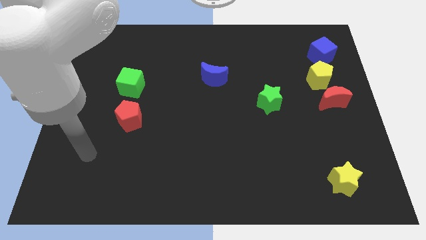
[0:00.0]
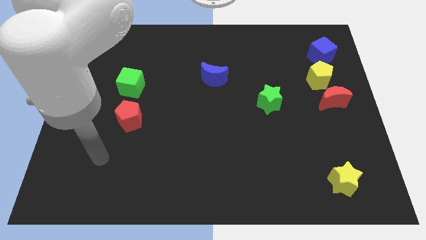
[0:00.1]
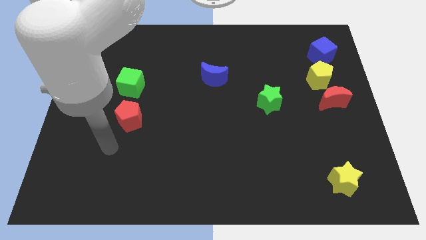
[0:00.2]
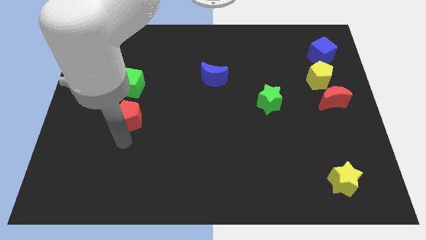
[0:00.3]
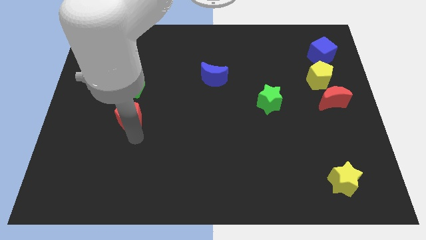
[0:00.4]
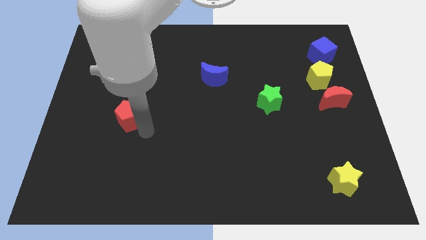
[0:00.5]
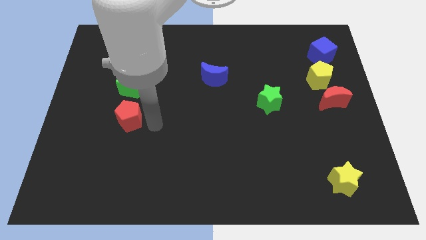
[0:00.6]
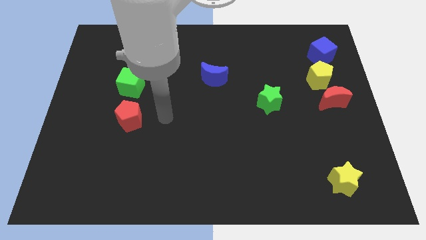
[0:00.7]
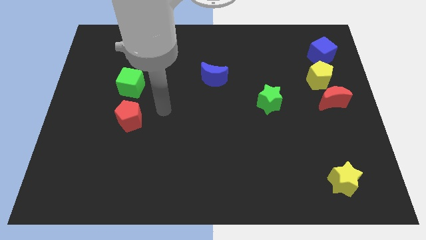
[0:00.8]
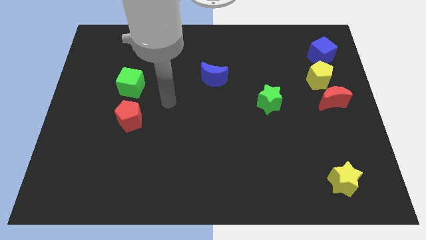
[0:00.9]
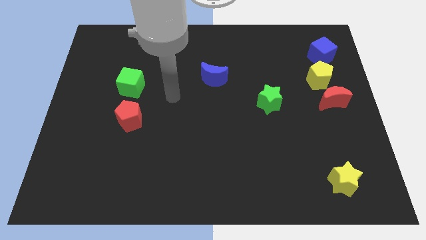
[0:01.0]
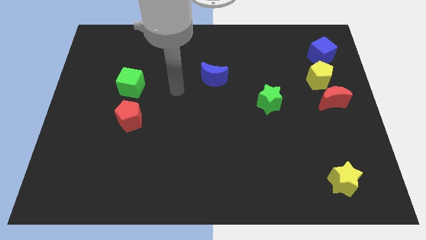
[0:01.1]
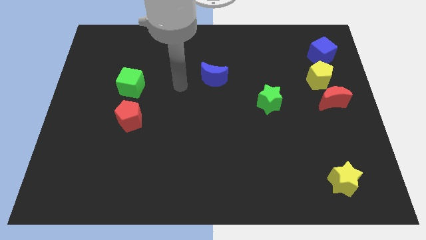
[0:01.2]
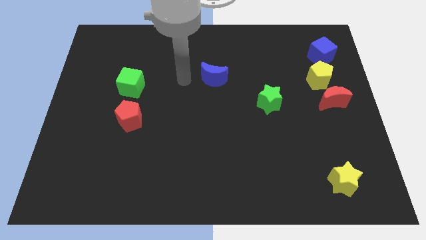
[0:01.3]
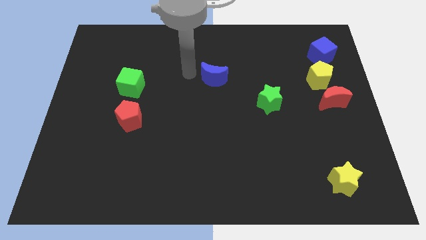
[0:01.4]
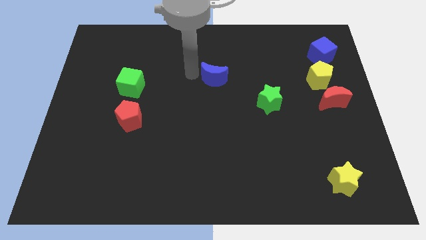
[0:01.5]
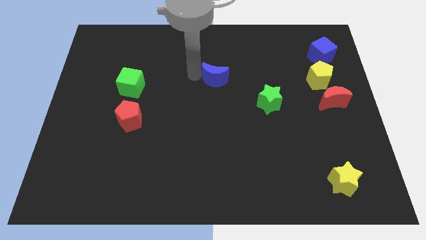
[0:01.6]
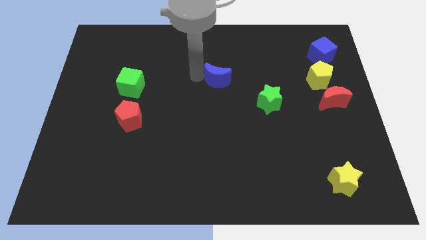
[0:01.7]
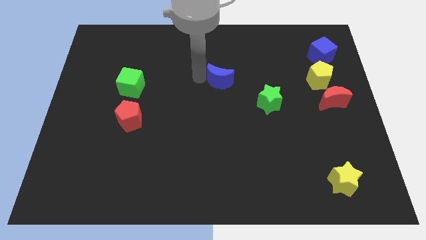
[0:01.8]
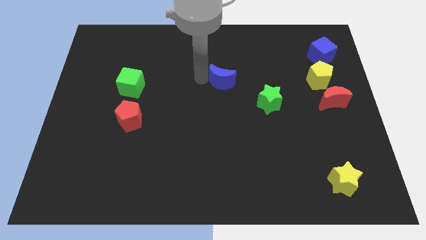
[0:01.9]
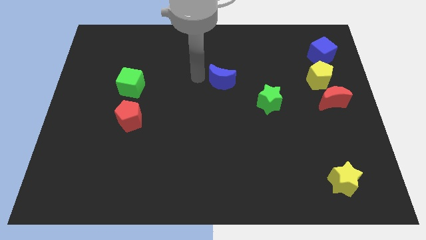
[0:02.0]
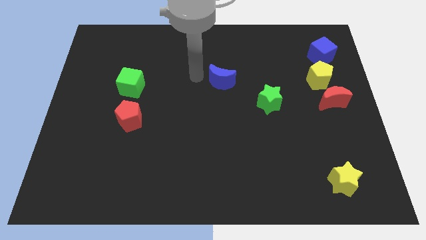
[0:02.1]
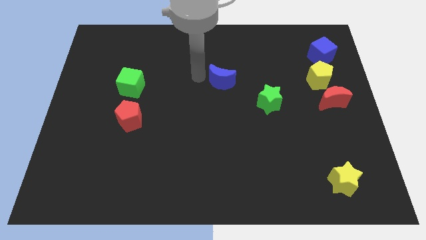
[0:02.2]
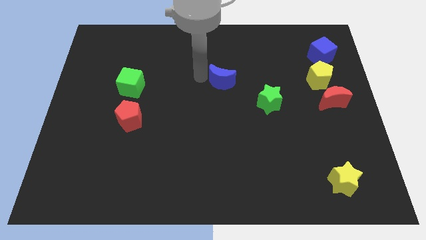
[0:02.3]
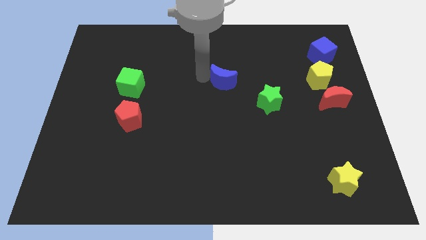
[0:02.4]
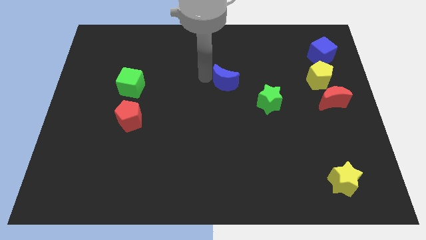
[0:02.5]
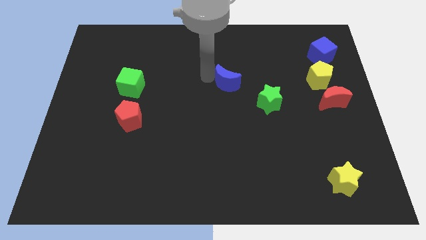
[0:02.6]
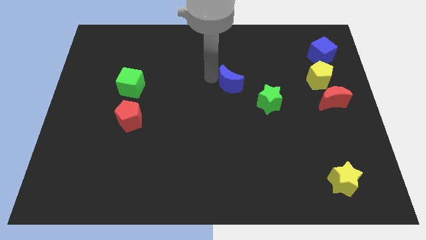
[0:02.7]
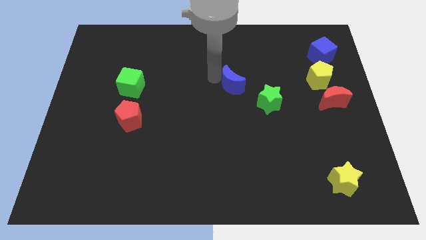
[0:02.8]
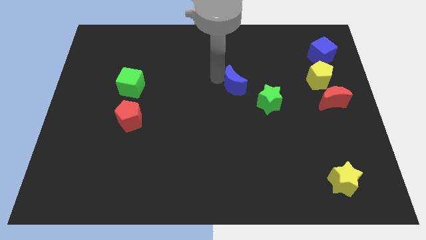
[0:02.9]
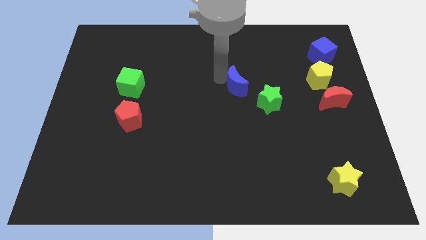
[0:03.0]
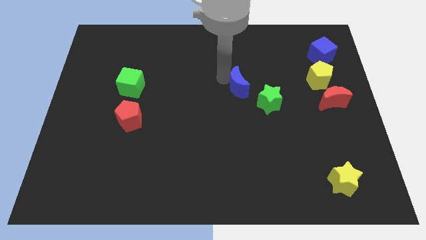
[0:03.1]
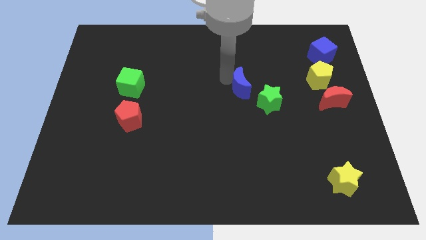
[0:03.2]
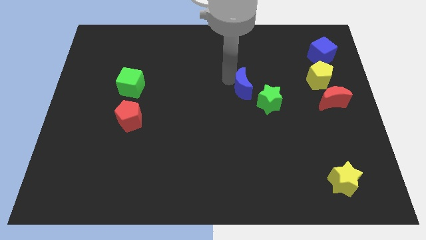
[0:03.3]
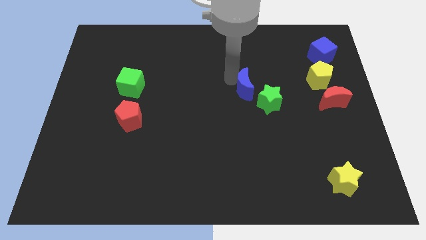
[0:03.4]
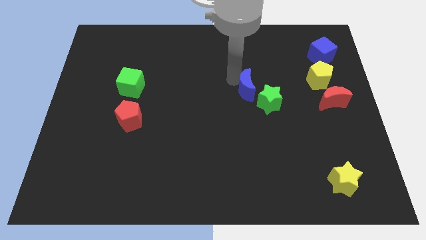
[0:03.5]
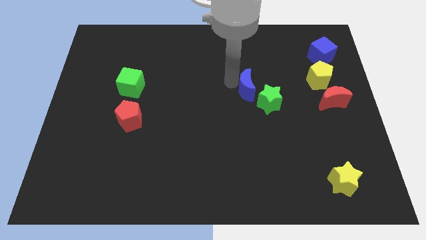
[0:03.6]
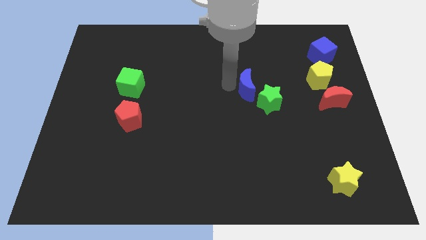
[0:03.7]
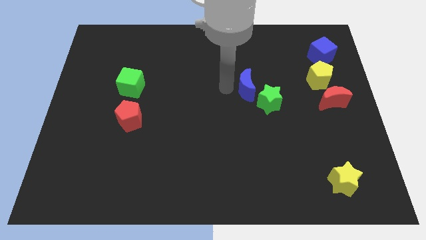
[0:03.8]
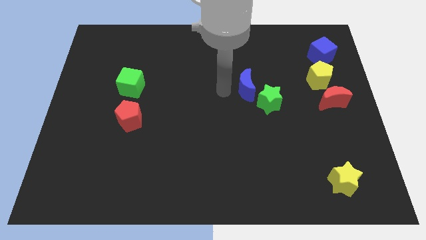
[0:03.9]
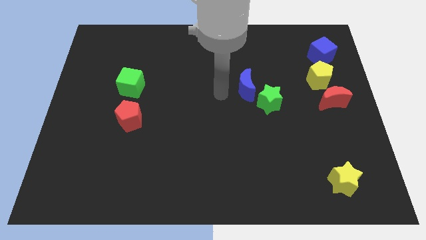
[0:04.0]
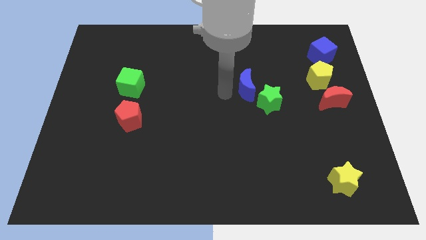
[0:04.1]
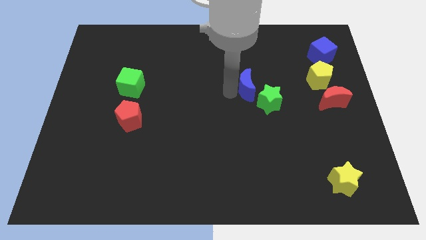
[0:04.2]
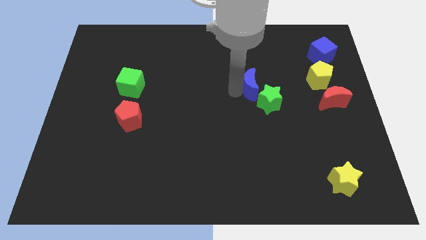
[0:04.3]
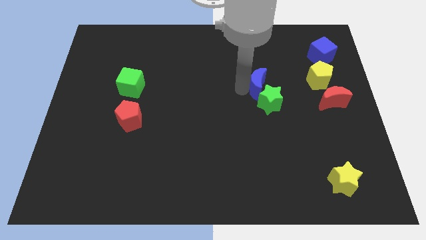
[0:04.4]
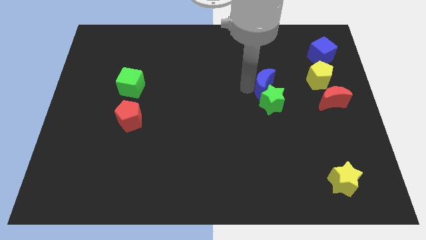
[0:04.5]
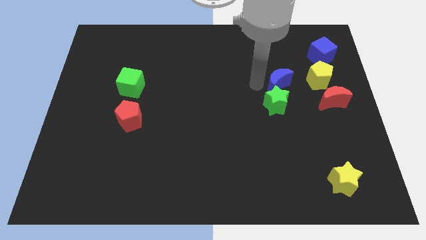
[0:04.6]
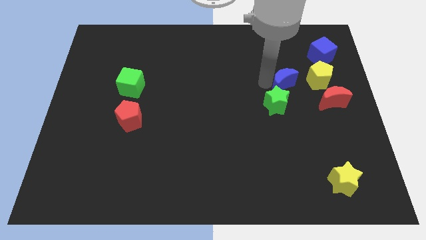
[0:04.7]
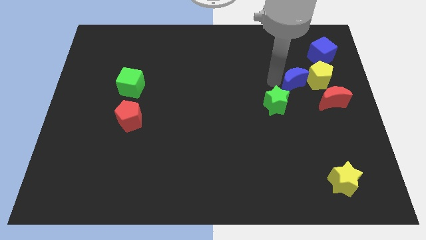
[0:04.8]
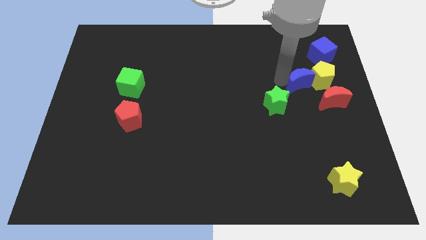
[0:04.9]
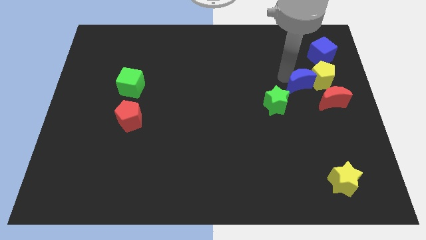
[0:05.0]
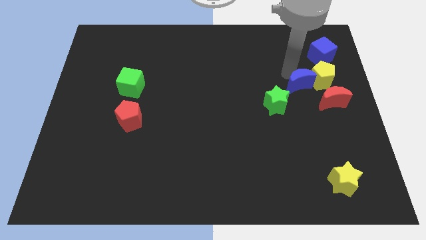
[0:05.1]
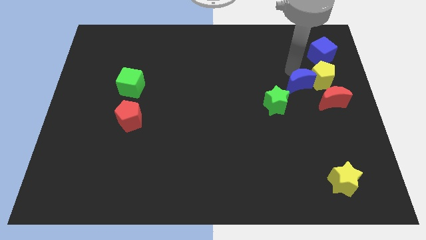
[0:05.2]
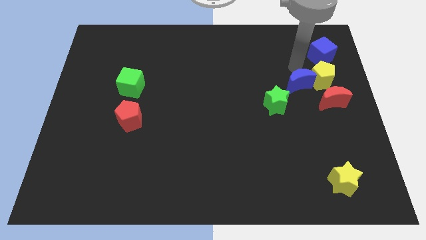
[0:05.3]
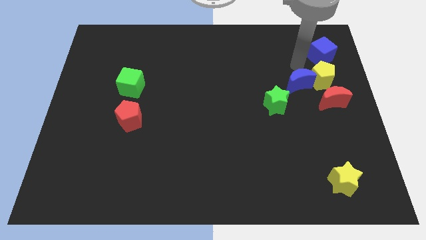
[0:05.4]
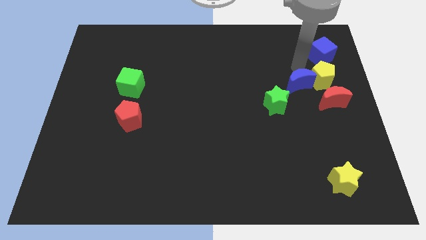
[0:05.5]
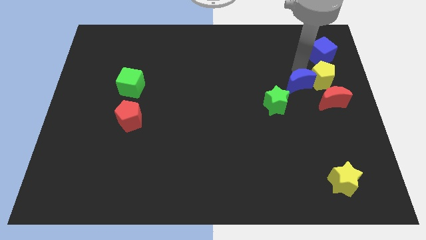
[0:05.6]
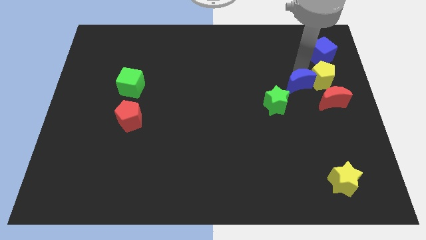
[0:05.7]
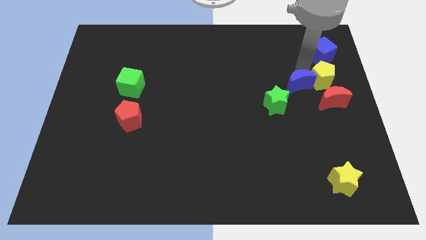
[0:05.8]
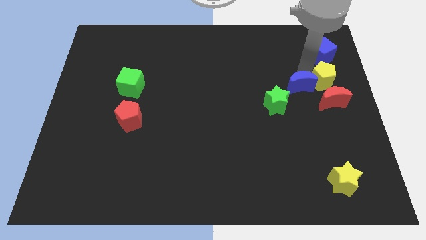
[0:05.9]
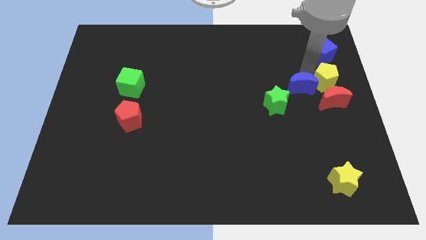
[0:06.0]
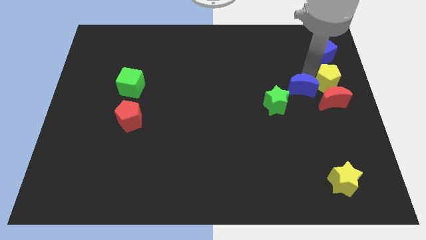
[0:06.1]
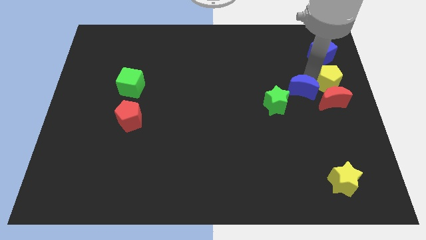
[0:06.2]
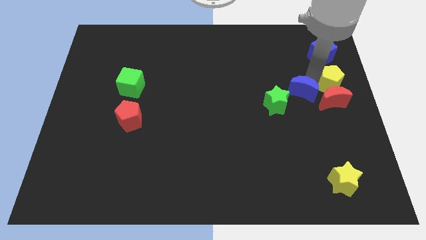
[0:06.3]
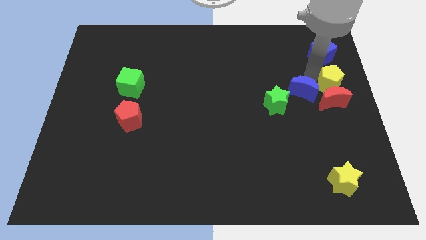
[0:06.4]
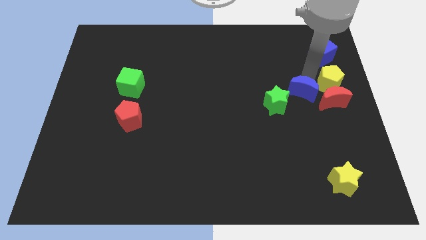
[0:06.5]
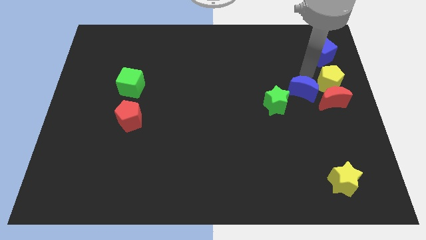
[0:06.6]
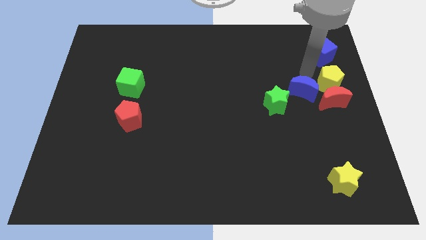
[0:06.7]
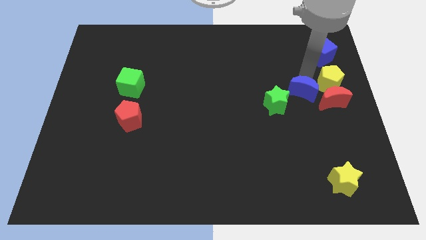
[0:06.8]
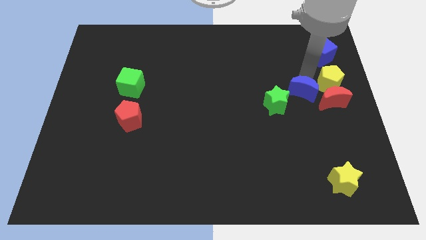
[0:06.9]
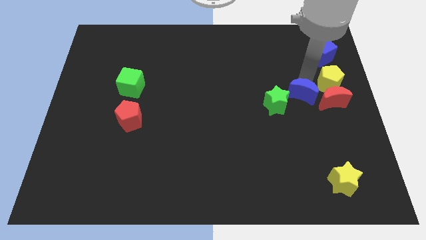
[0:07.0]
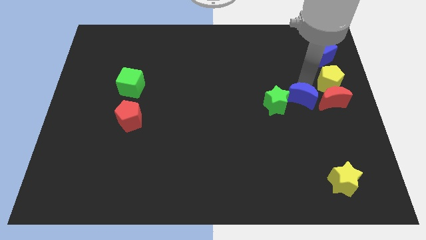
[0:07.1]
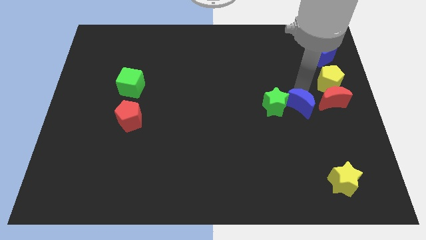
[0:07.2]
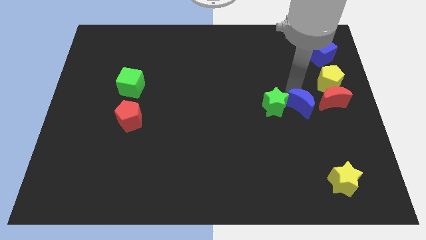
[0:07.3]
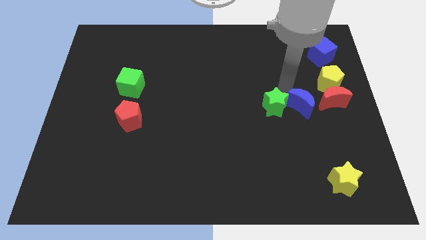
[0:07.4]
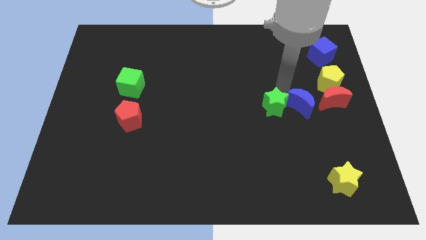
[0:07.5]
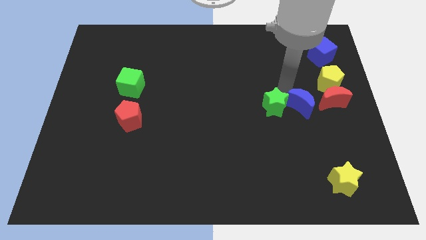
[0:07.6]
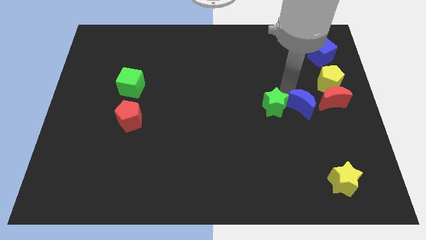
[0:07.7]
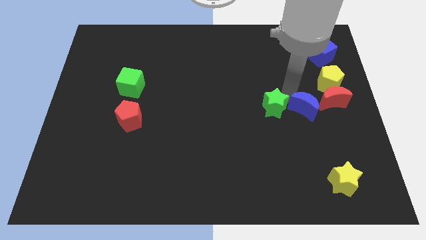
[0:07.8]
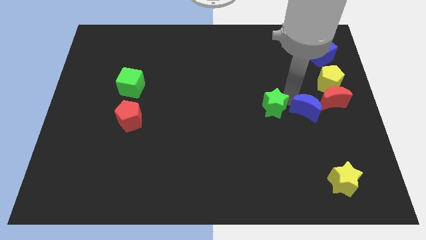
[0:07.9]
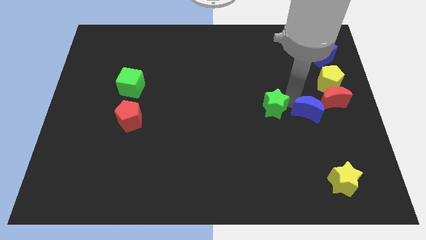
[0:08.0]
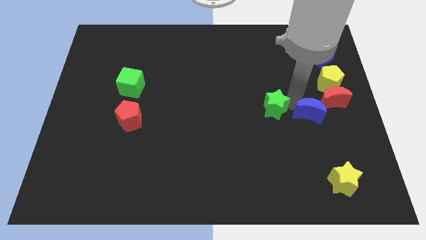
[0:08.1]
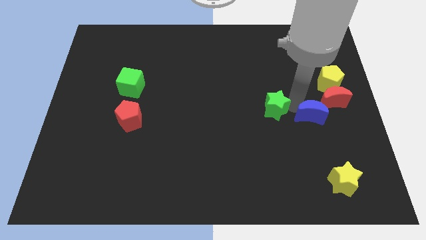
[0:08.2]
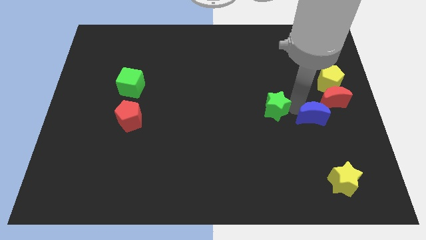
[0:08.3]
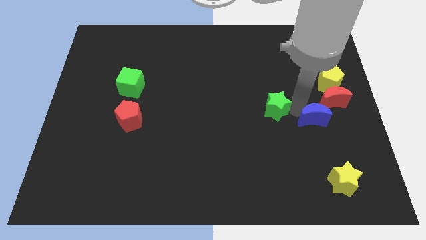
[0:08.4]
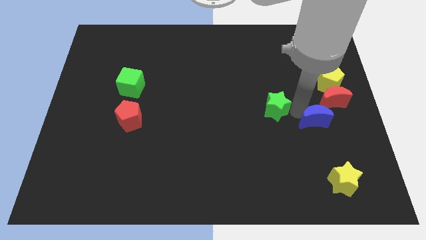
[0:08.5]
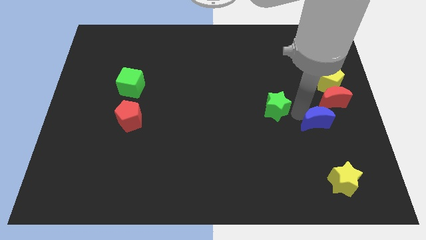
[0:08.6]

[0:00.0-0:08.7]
slide the blue moon to the bottom of the red moon
